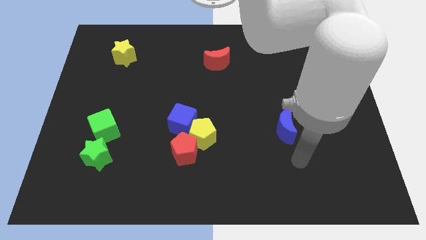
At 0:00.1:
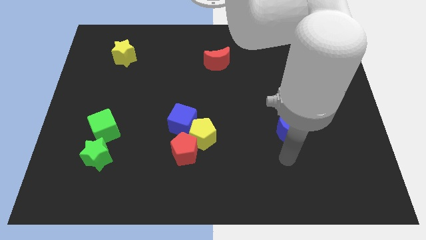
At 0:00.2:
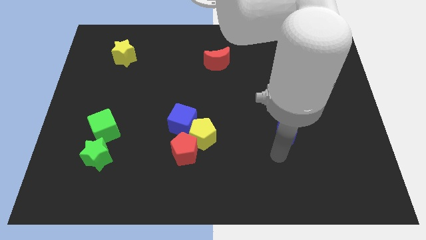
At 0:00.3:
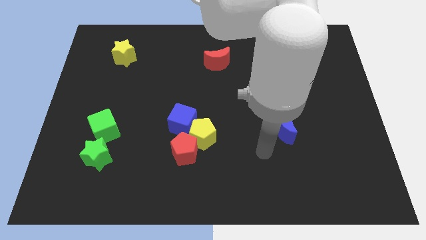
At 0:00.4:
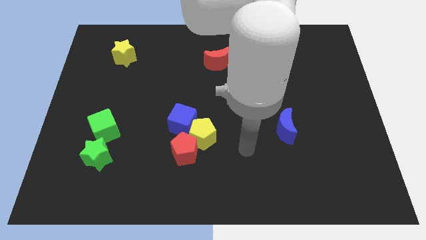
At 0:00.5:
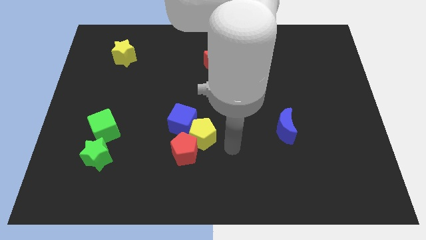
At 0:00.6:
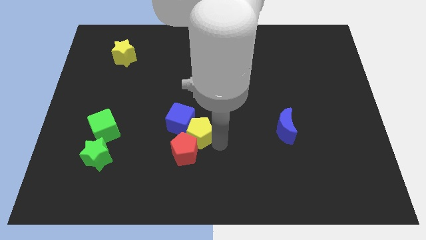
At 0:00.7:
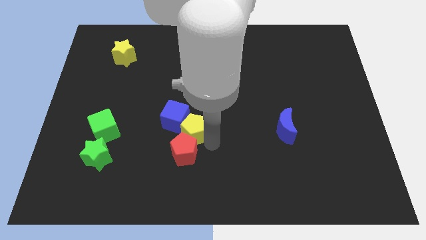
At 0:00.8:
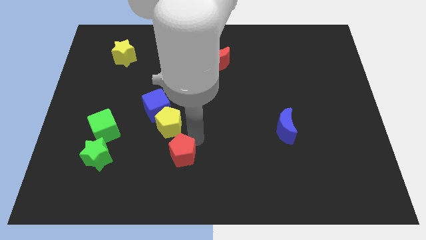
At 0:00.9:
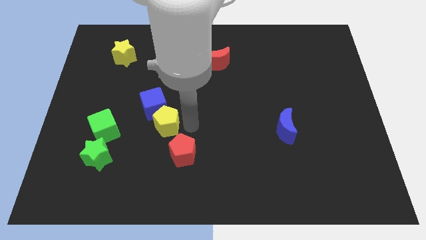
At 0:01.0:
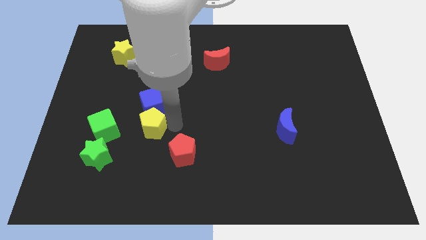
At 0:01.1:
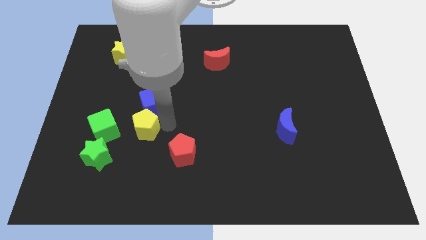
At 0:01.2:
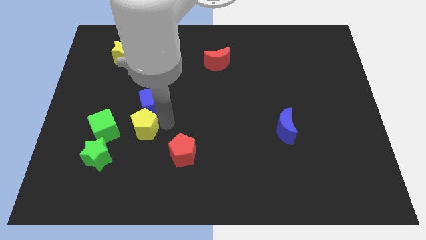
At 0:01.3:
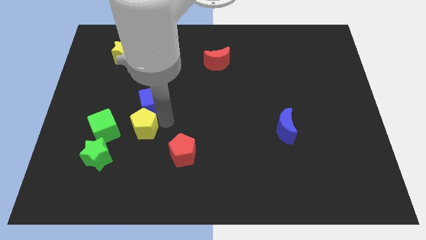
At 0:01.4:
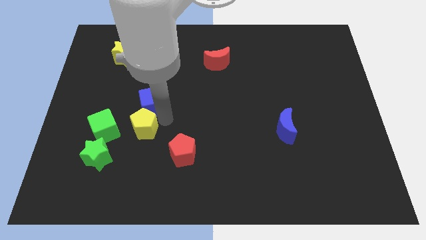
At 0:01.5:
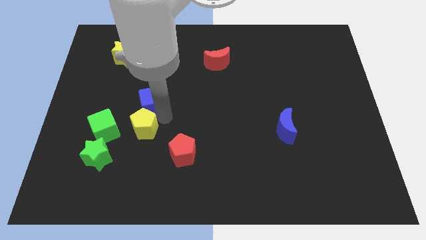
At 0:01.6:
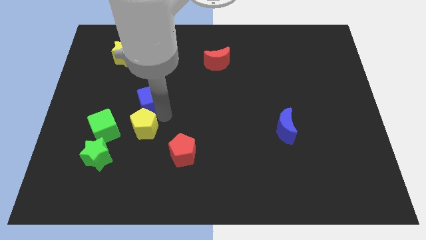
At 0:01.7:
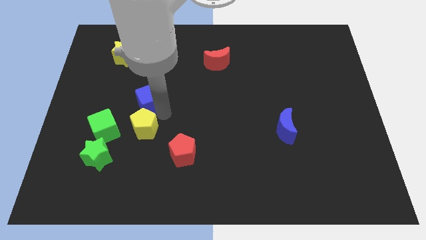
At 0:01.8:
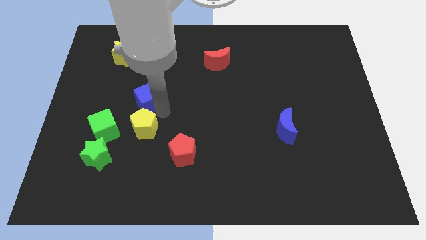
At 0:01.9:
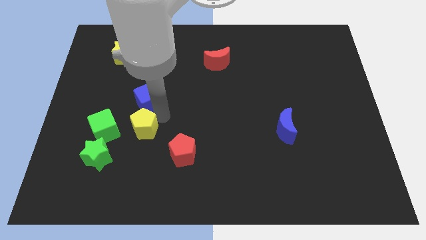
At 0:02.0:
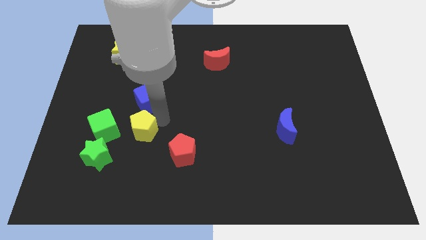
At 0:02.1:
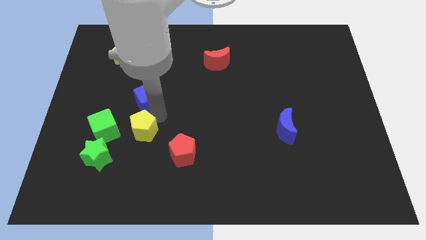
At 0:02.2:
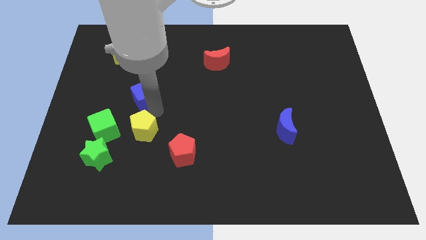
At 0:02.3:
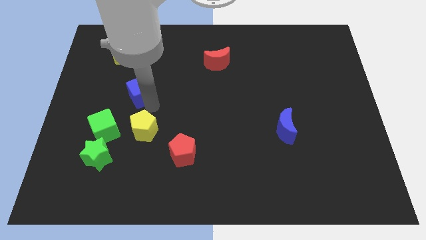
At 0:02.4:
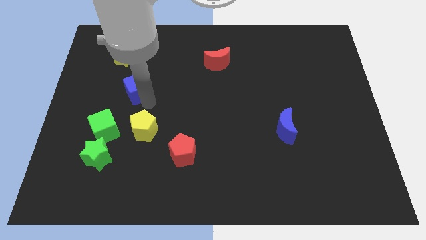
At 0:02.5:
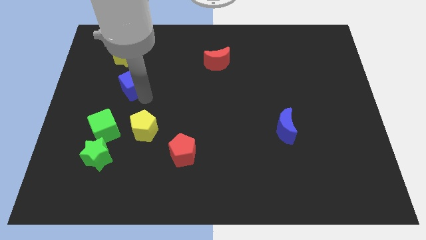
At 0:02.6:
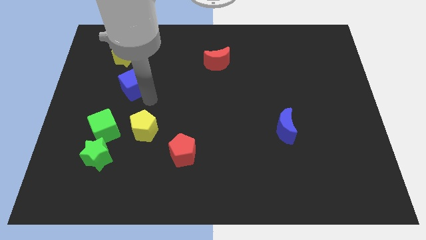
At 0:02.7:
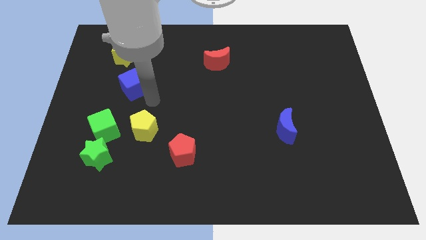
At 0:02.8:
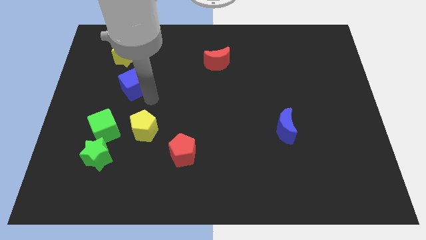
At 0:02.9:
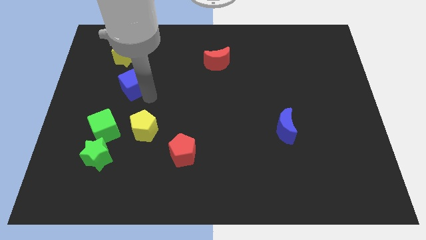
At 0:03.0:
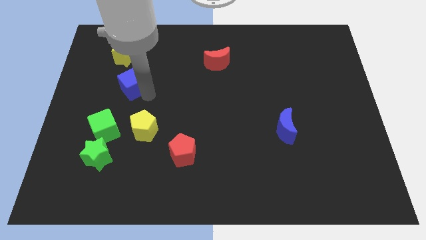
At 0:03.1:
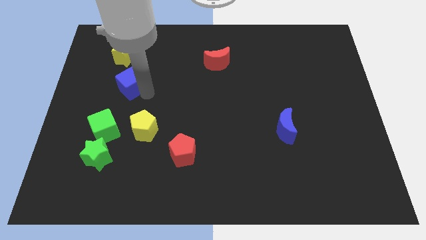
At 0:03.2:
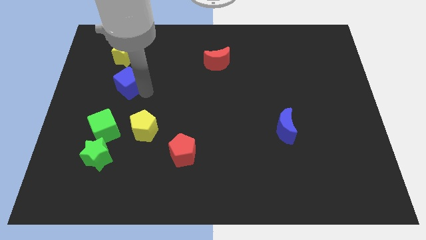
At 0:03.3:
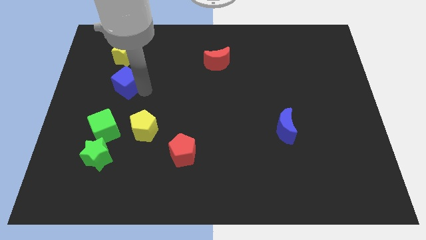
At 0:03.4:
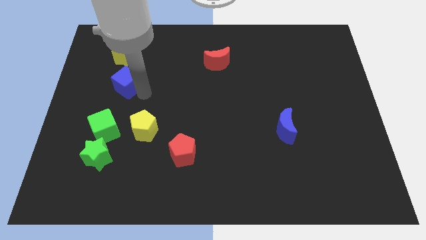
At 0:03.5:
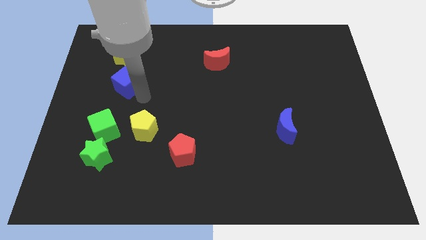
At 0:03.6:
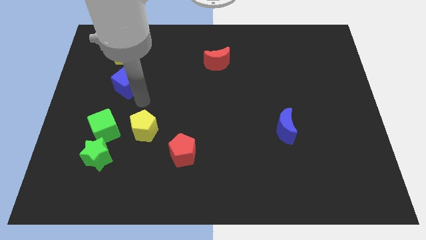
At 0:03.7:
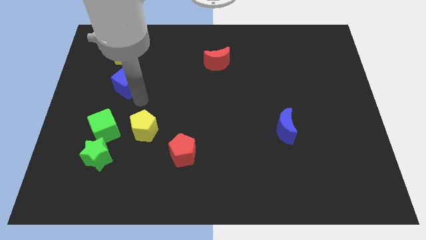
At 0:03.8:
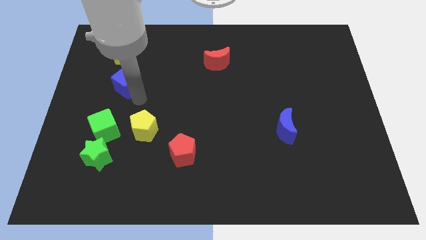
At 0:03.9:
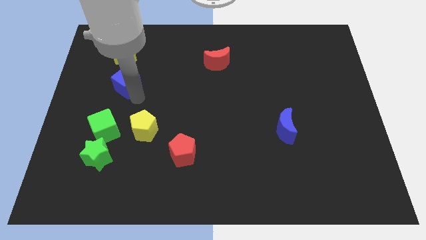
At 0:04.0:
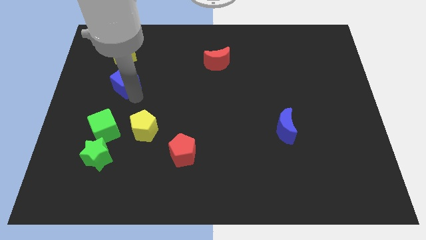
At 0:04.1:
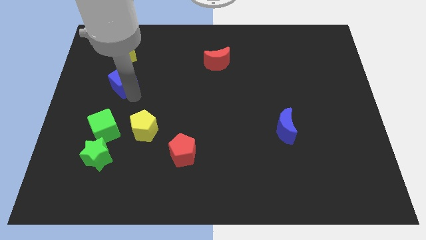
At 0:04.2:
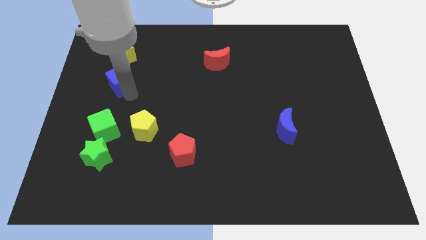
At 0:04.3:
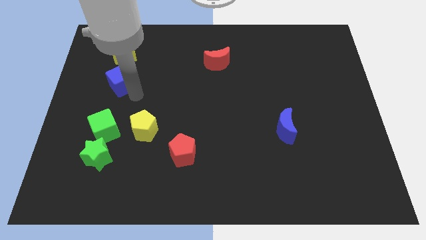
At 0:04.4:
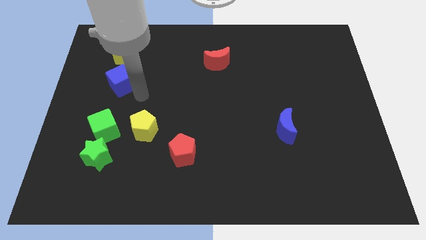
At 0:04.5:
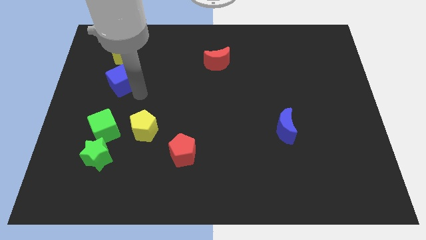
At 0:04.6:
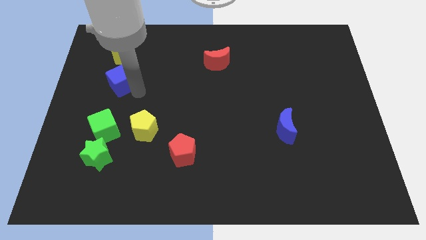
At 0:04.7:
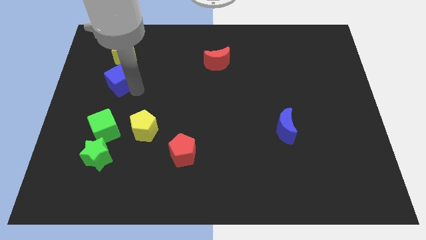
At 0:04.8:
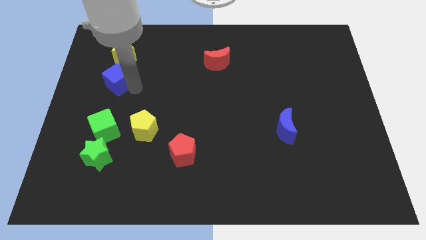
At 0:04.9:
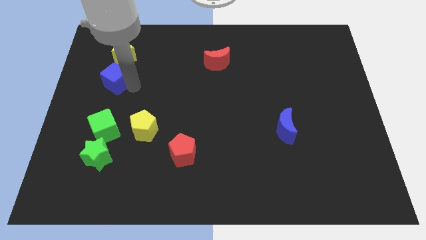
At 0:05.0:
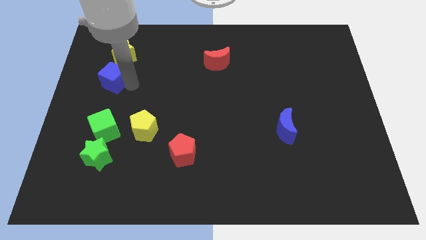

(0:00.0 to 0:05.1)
move the blue cube diagonally down and to the left of the yellow star

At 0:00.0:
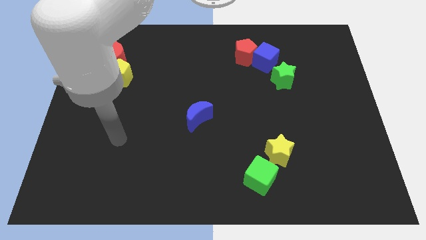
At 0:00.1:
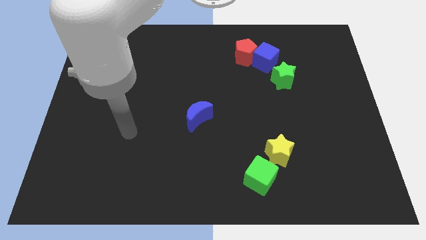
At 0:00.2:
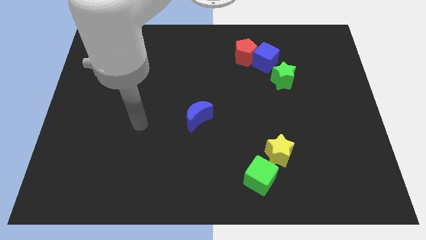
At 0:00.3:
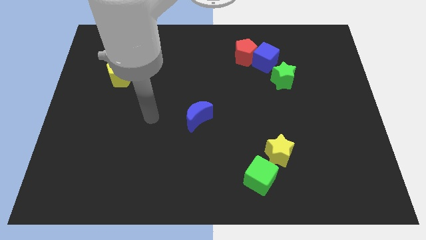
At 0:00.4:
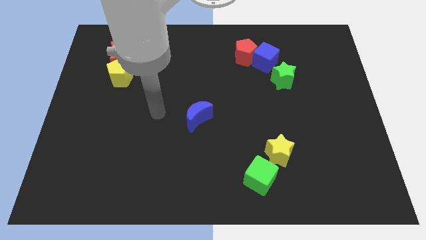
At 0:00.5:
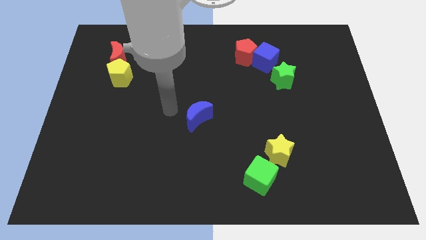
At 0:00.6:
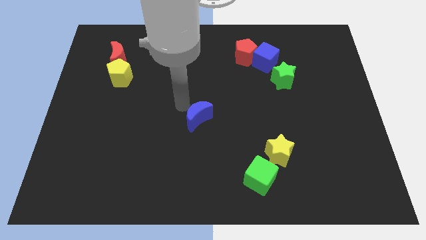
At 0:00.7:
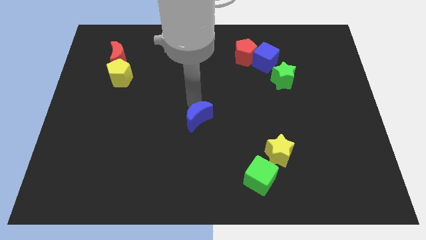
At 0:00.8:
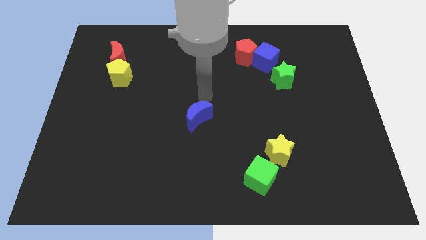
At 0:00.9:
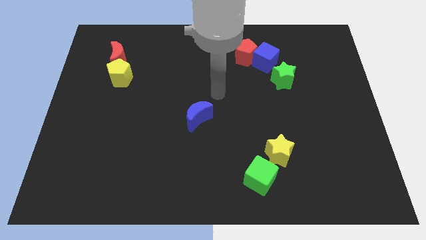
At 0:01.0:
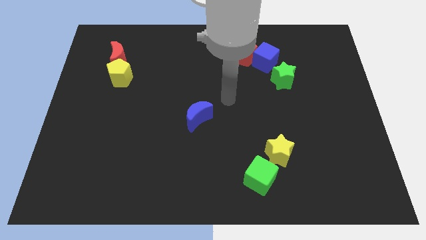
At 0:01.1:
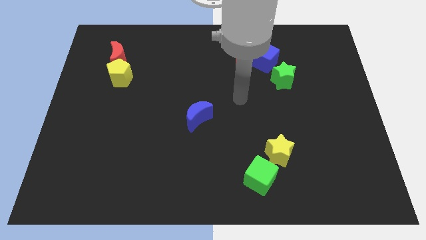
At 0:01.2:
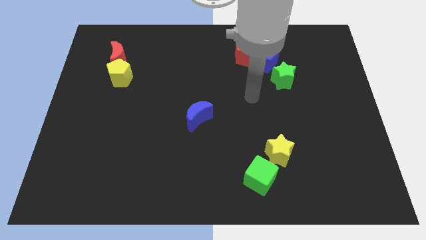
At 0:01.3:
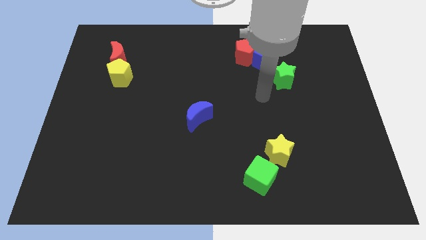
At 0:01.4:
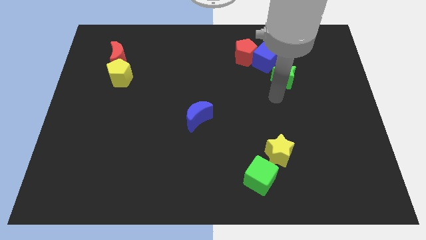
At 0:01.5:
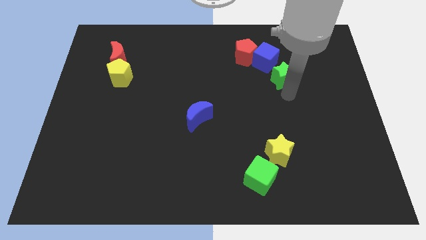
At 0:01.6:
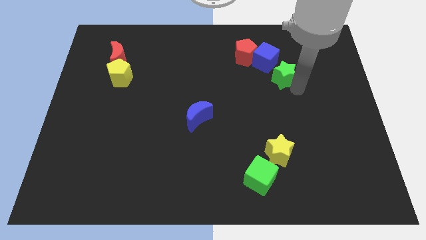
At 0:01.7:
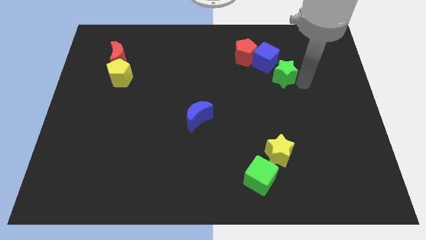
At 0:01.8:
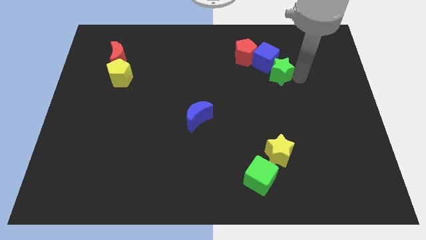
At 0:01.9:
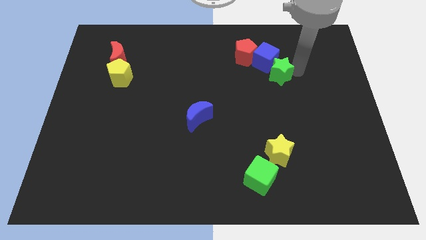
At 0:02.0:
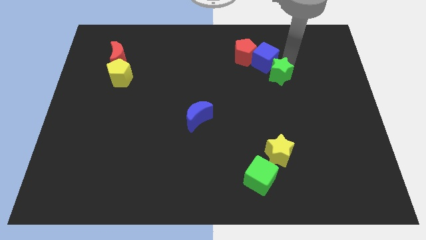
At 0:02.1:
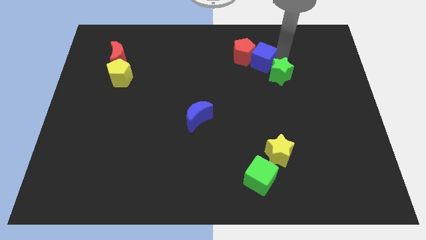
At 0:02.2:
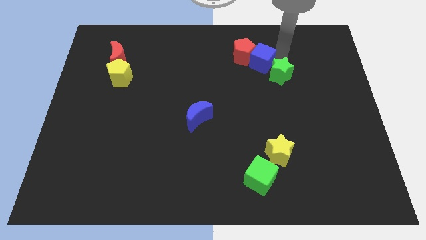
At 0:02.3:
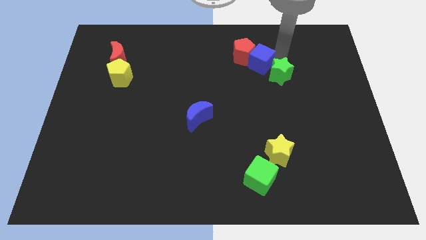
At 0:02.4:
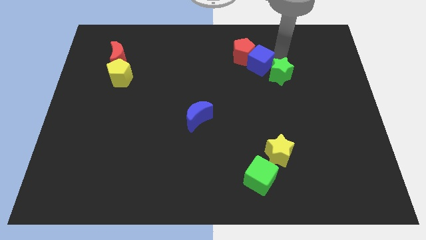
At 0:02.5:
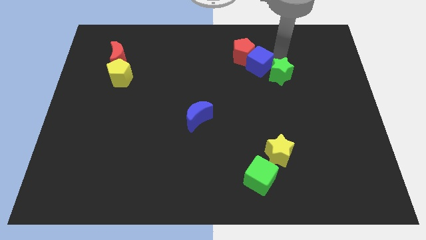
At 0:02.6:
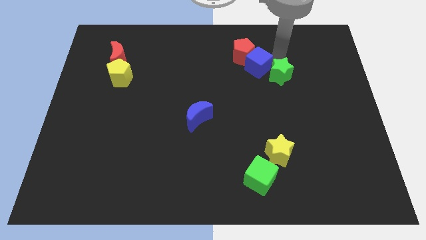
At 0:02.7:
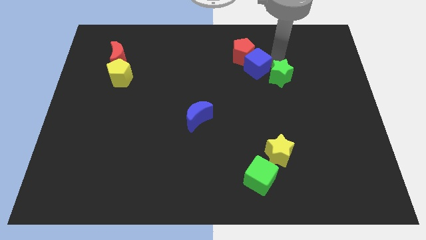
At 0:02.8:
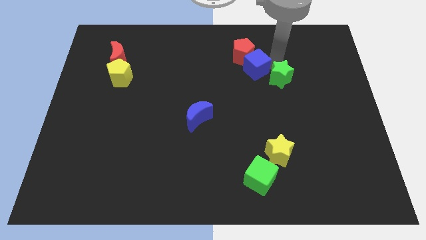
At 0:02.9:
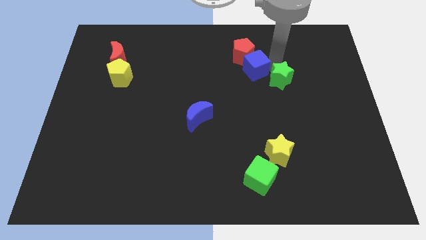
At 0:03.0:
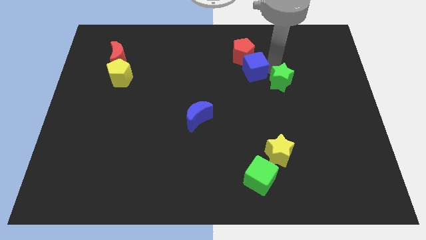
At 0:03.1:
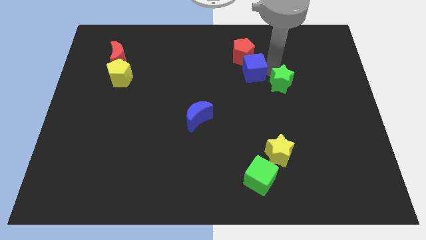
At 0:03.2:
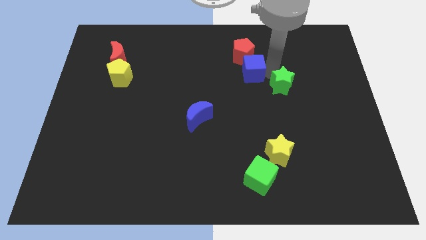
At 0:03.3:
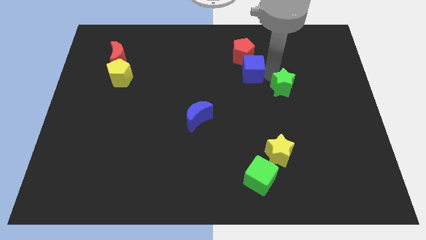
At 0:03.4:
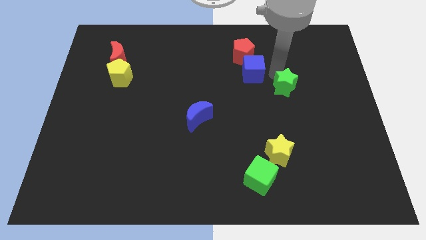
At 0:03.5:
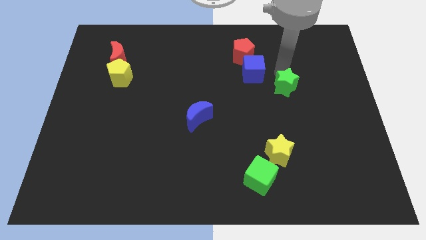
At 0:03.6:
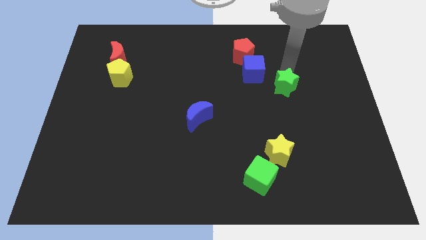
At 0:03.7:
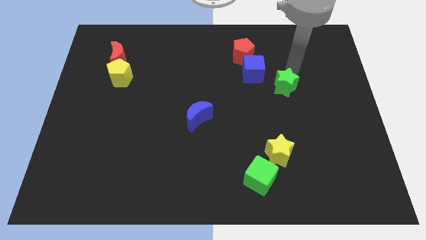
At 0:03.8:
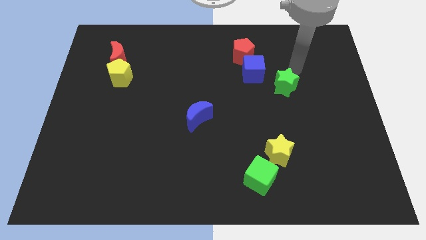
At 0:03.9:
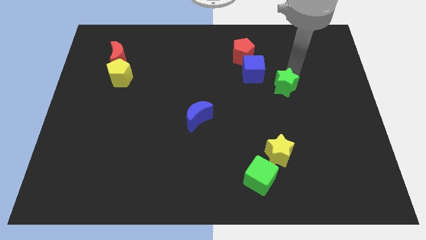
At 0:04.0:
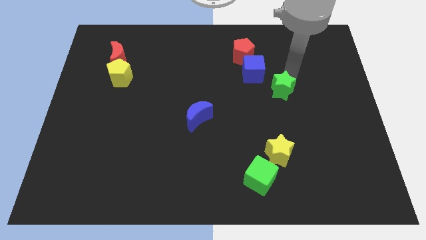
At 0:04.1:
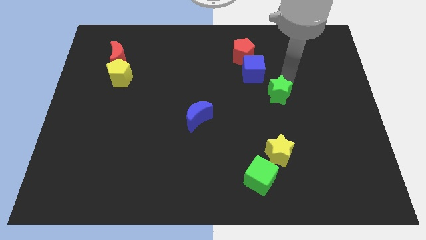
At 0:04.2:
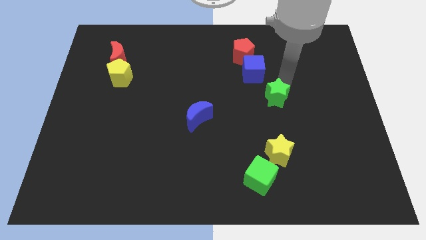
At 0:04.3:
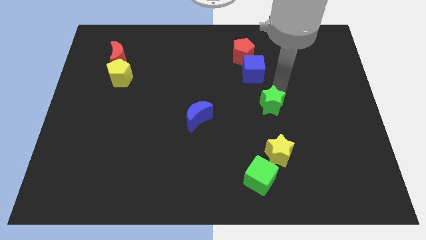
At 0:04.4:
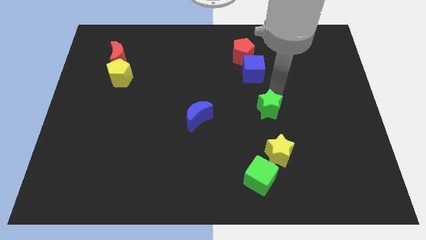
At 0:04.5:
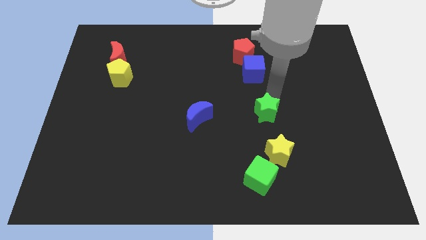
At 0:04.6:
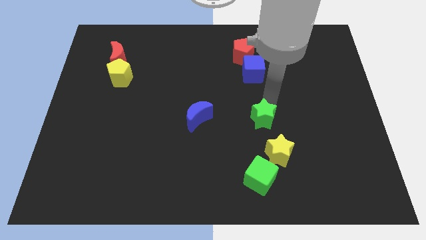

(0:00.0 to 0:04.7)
push the green star to the top of the green cube
